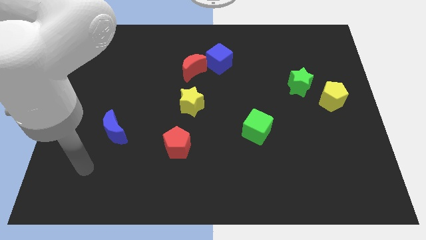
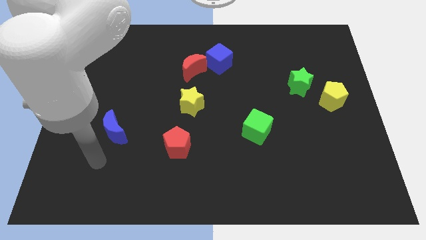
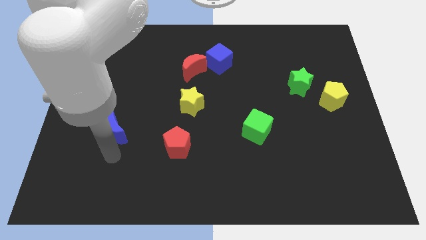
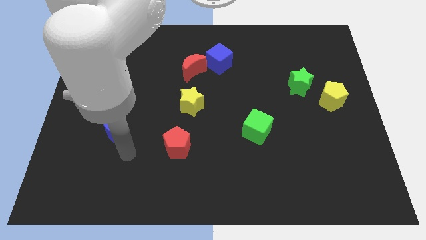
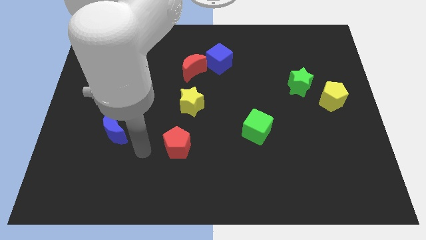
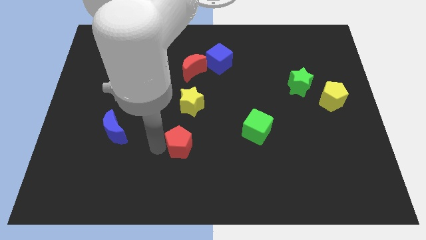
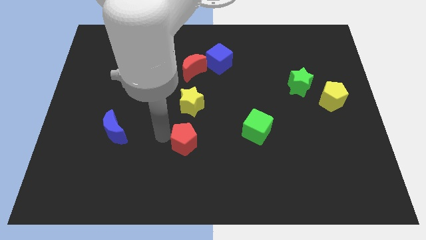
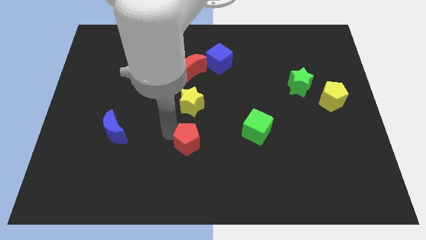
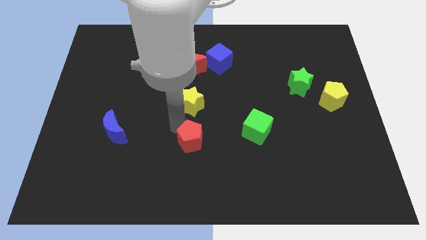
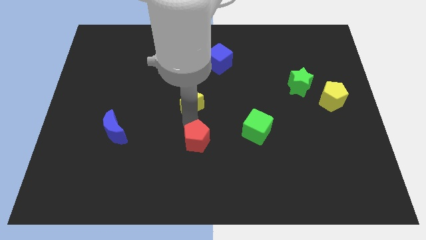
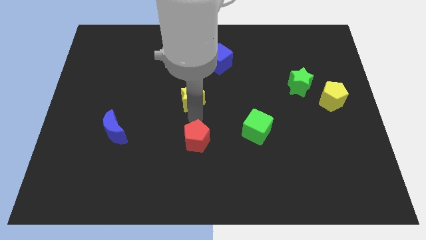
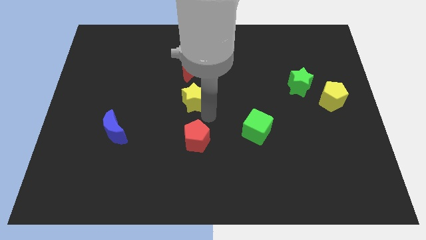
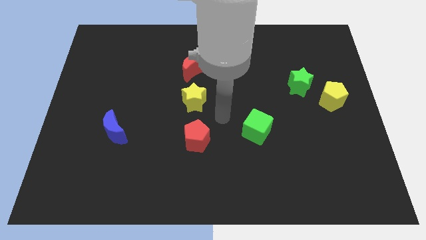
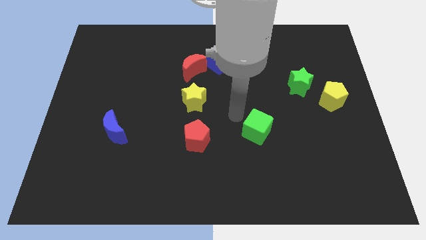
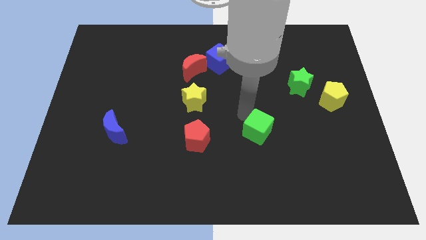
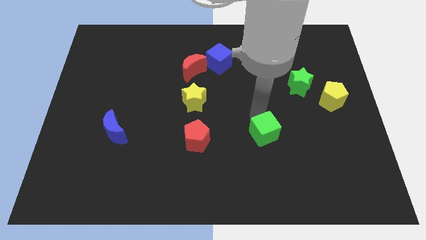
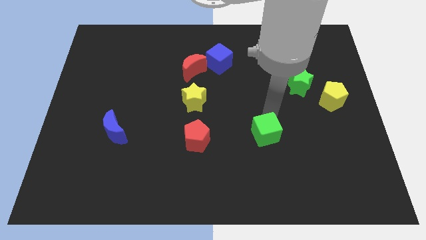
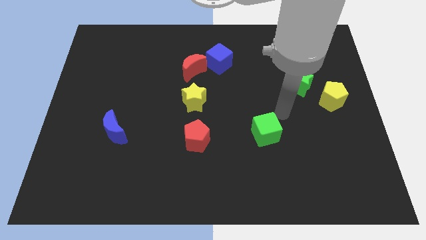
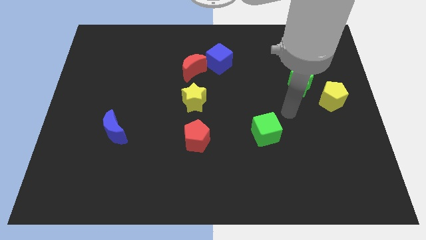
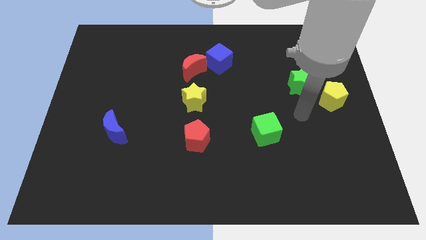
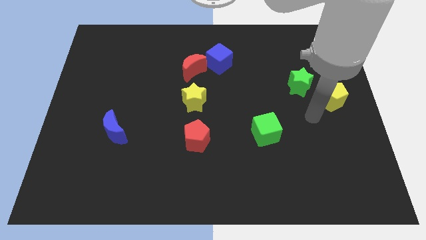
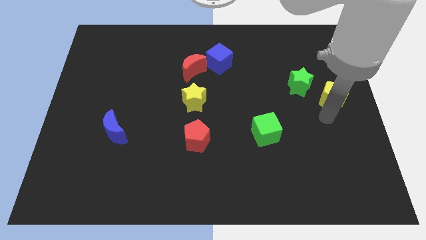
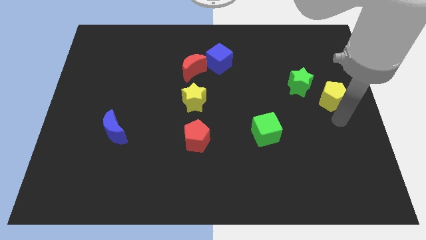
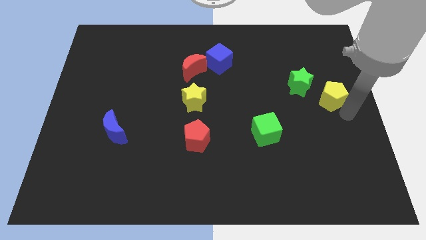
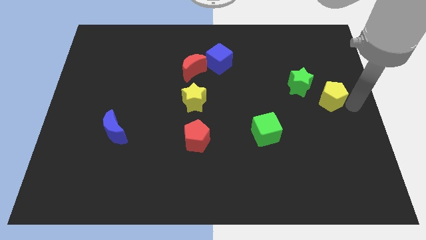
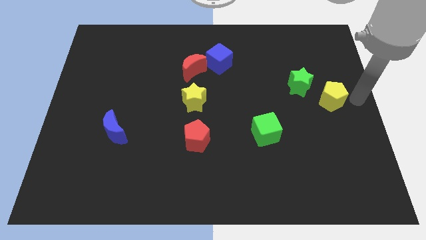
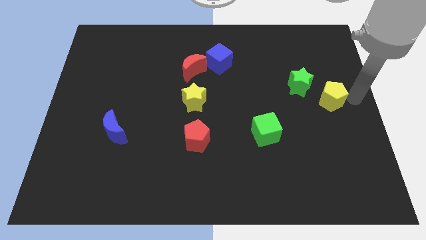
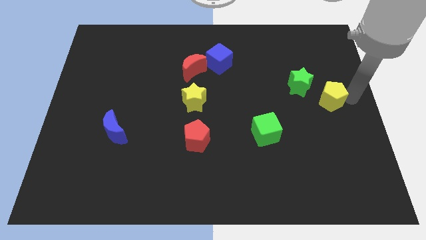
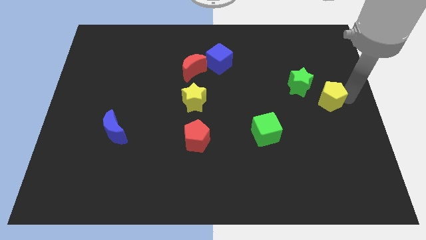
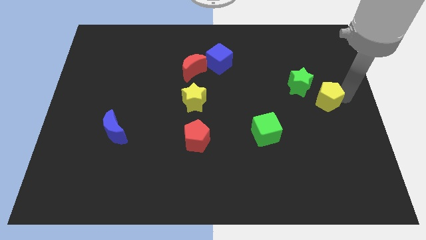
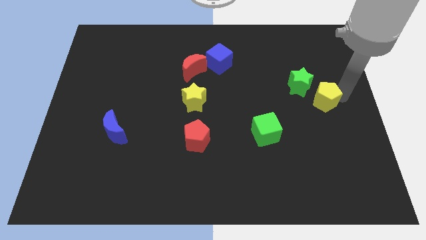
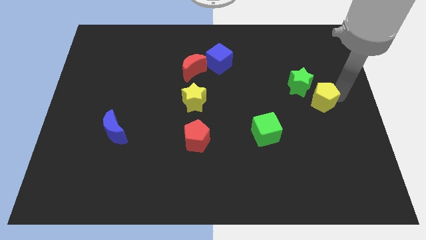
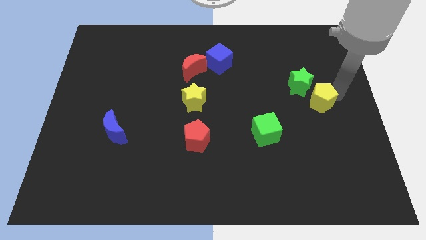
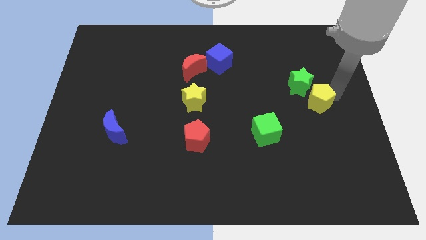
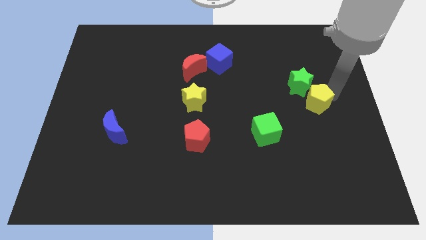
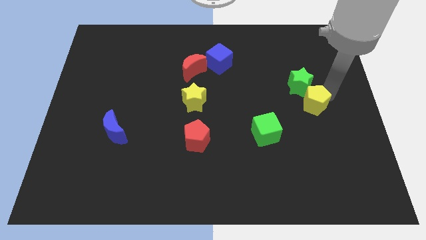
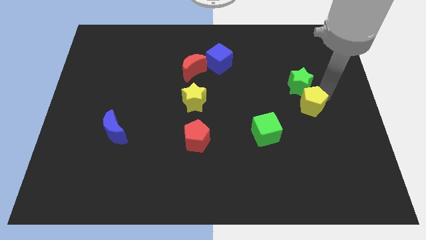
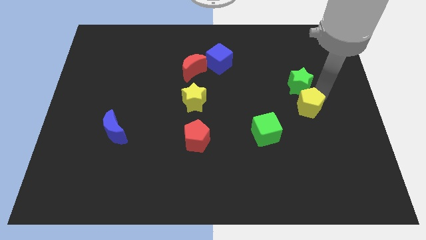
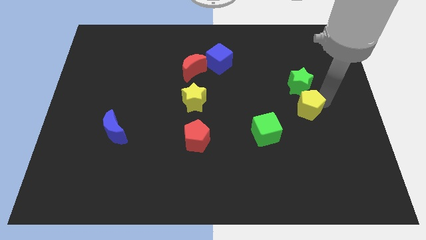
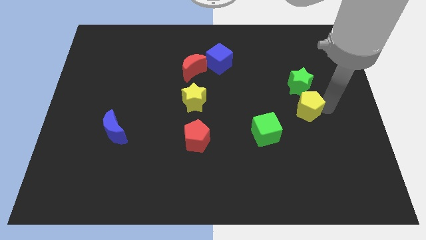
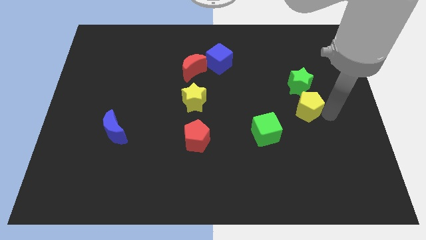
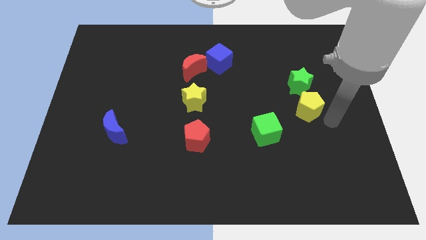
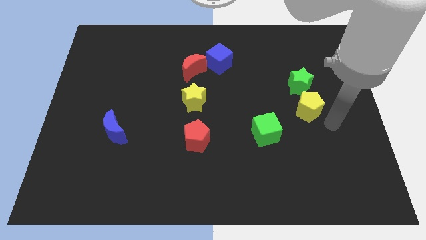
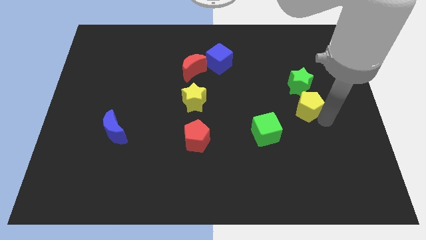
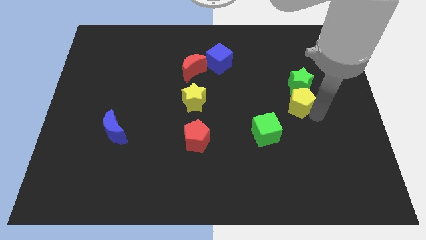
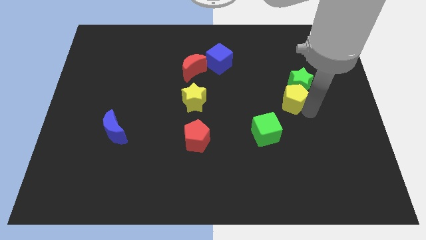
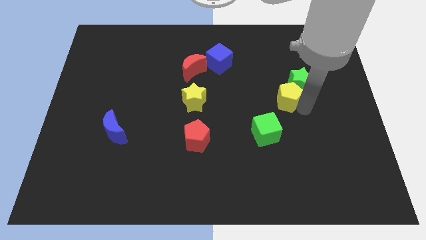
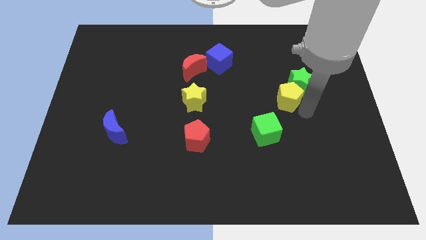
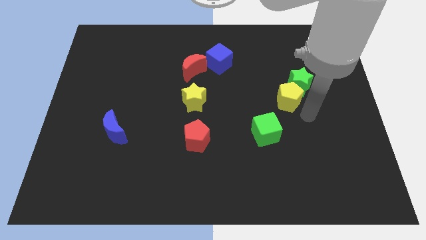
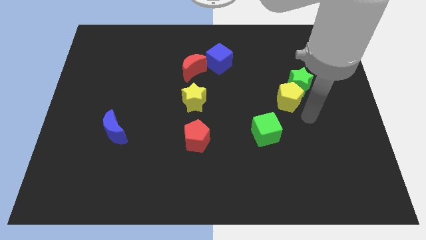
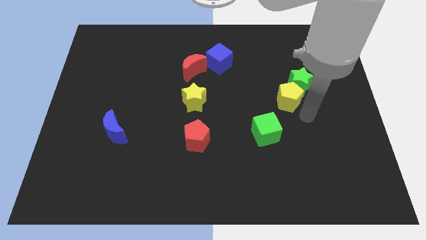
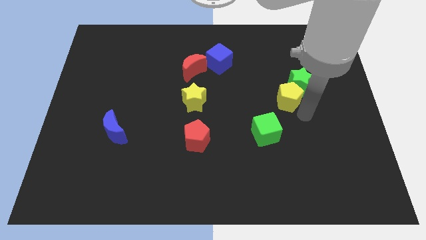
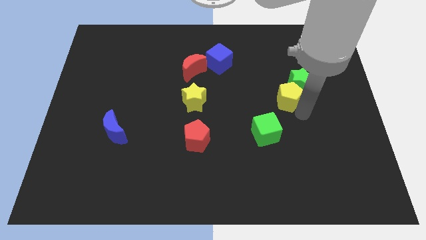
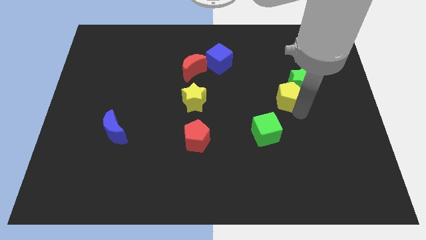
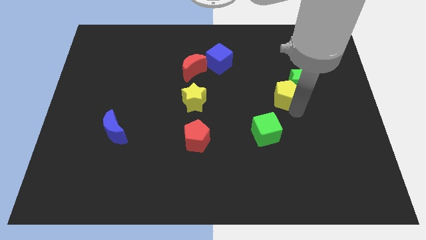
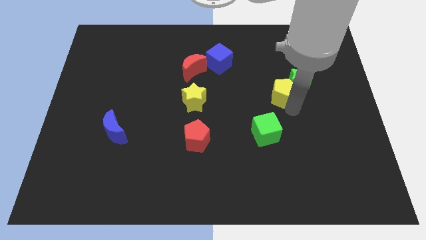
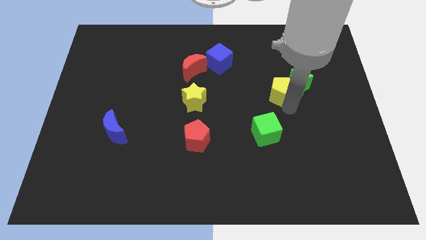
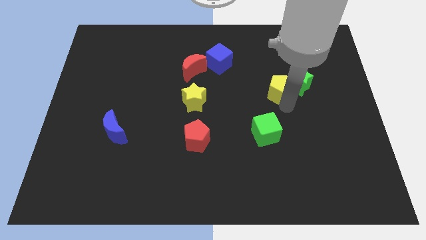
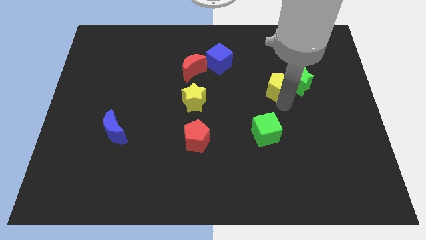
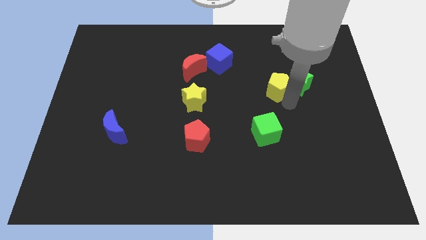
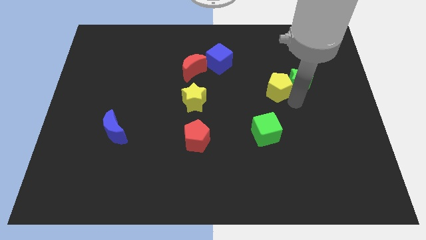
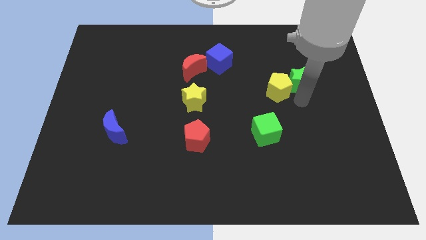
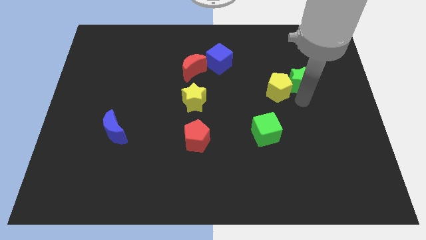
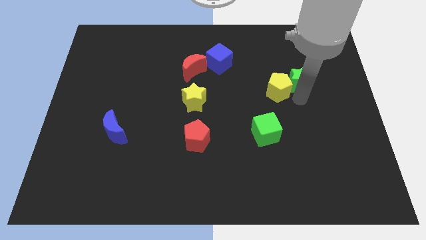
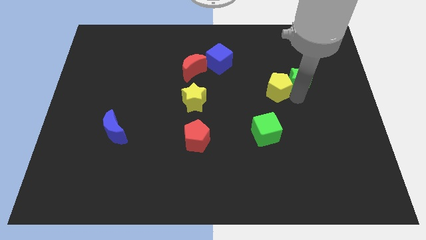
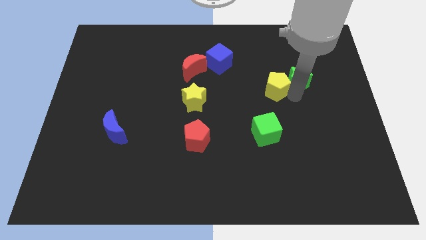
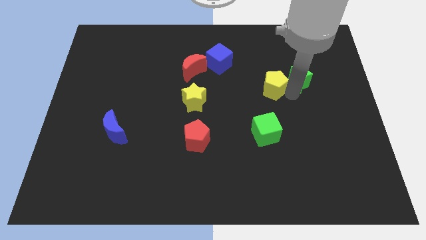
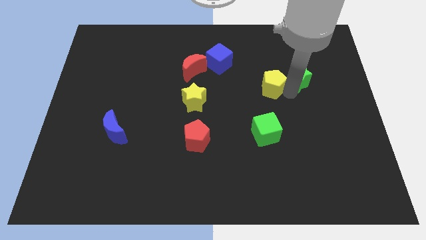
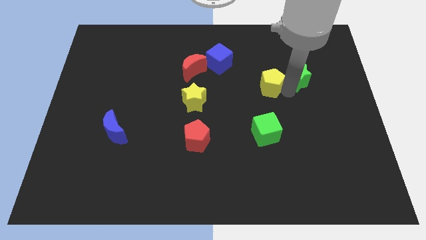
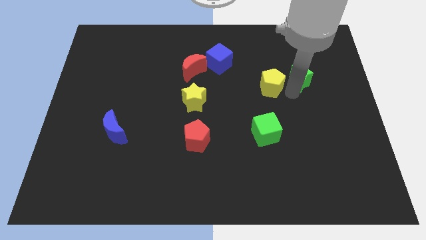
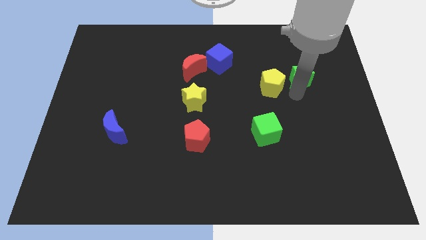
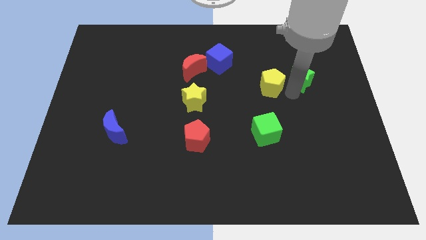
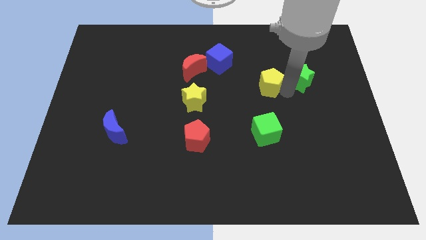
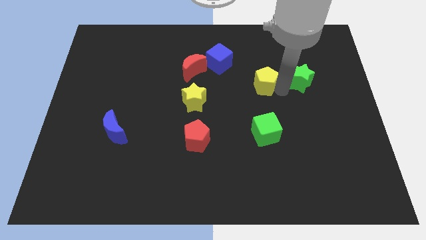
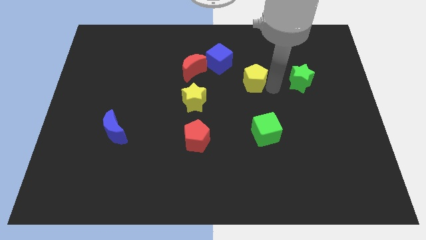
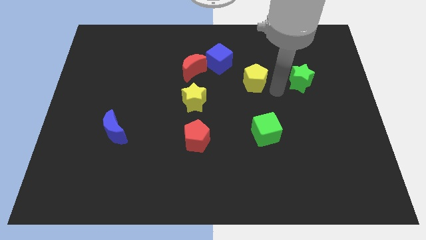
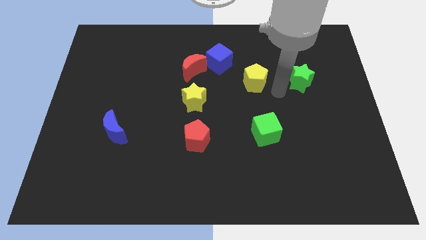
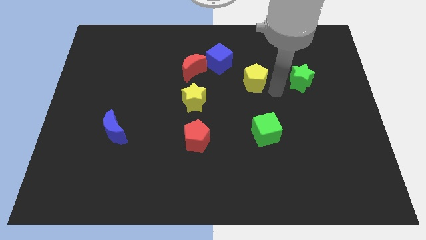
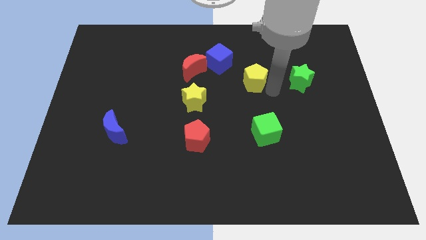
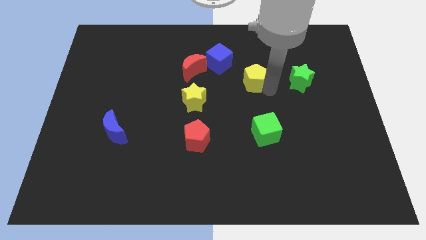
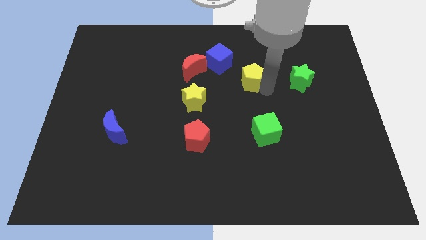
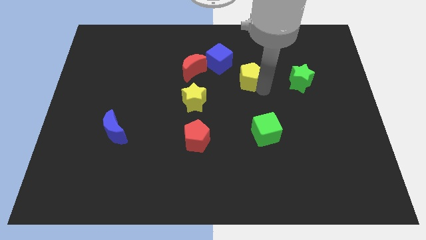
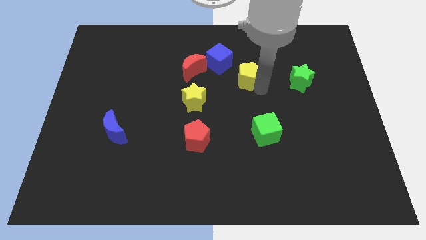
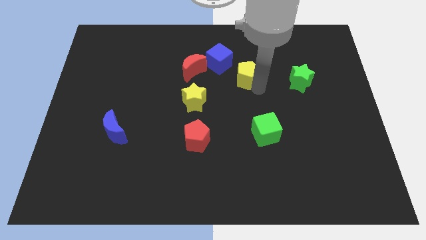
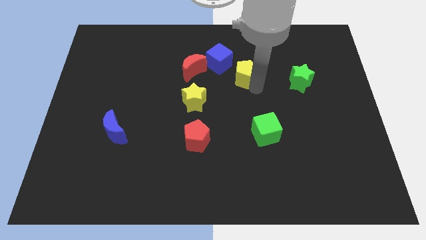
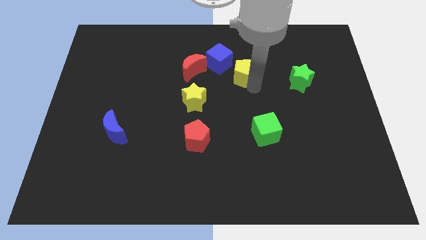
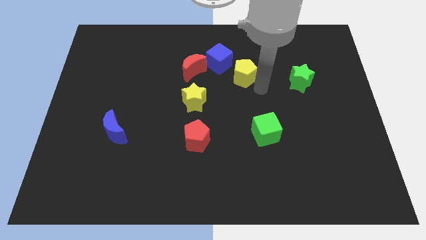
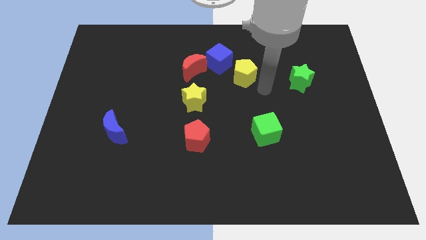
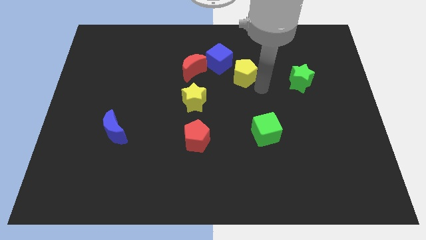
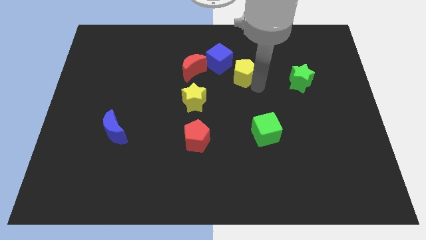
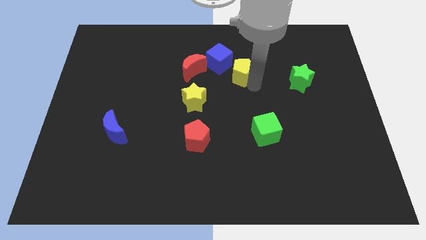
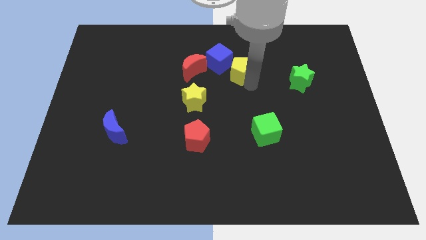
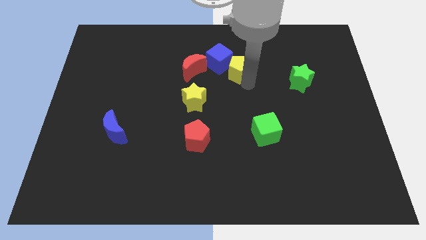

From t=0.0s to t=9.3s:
put the yellow pentagon next to the blue cube
